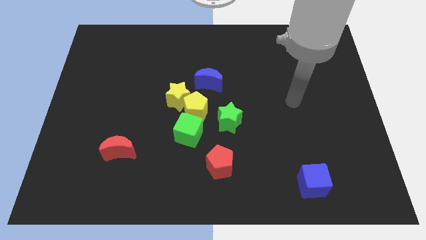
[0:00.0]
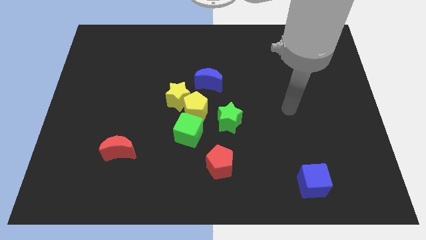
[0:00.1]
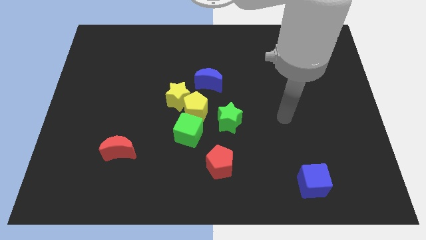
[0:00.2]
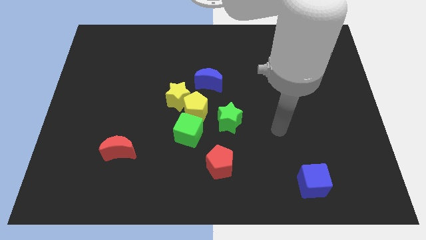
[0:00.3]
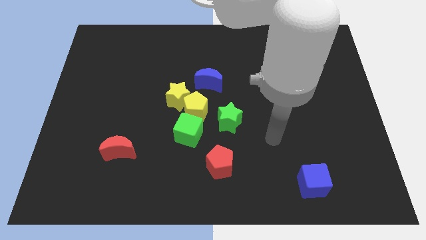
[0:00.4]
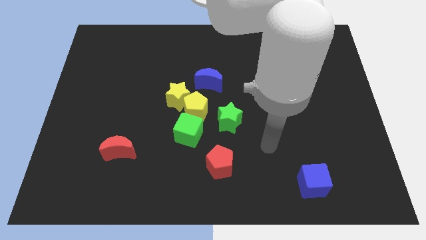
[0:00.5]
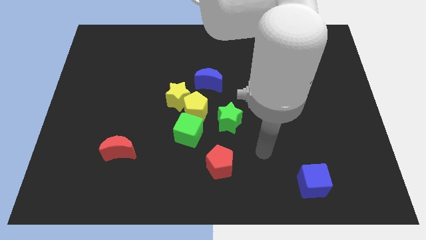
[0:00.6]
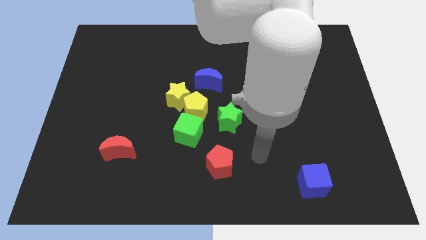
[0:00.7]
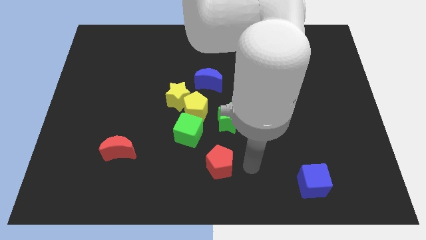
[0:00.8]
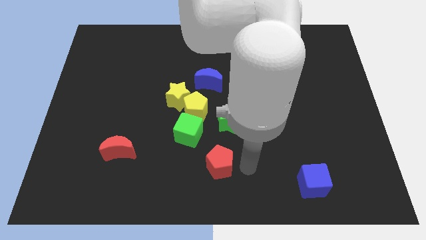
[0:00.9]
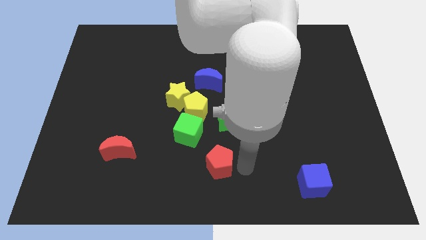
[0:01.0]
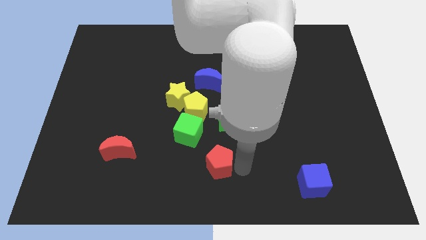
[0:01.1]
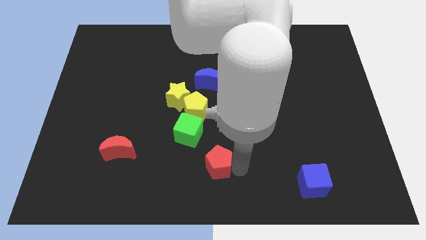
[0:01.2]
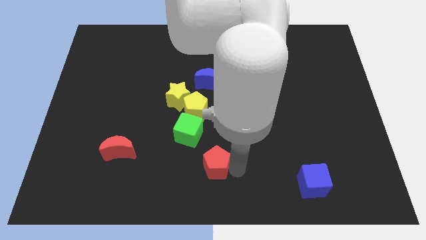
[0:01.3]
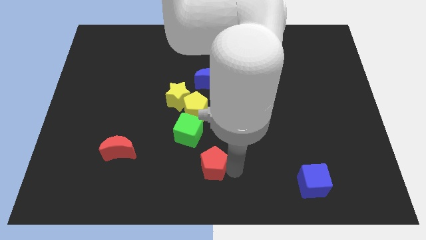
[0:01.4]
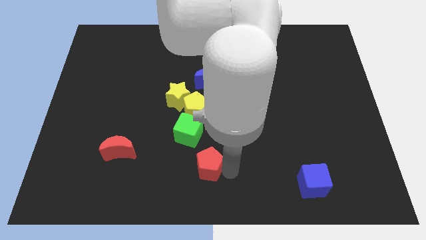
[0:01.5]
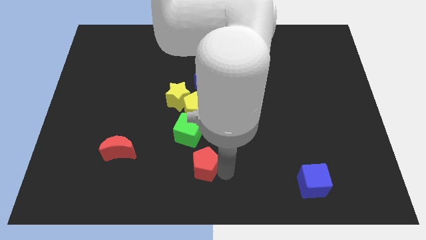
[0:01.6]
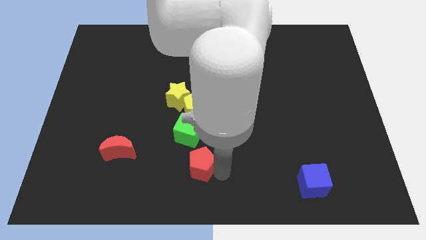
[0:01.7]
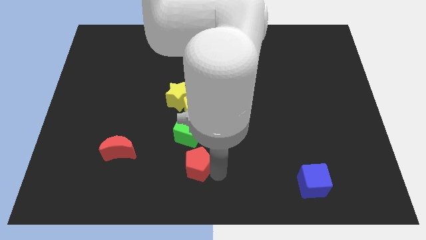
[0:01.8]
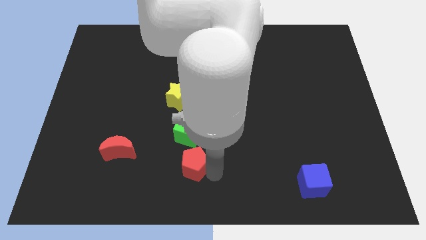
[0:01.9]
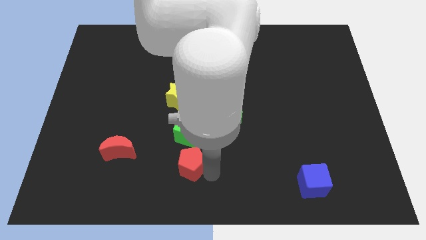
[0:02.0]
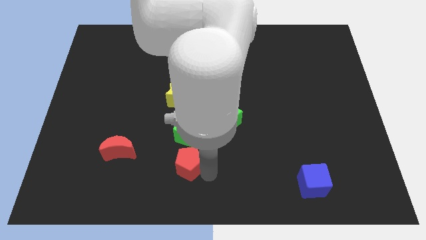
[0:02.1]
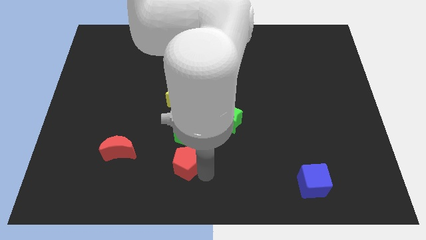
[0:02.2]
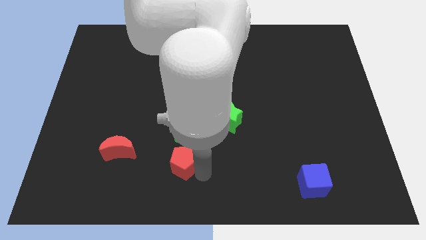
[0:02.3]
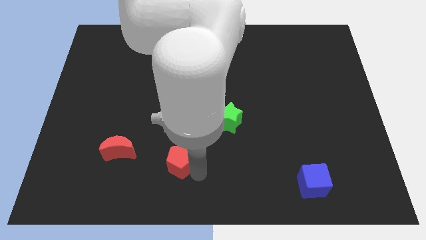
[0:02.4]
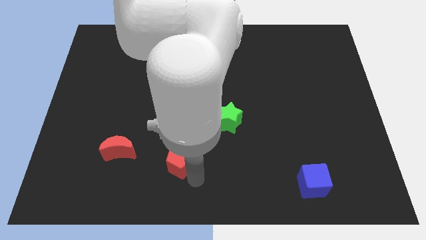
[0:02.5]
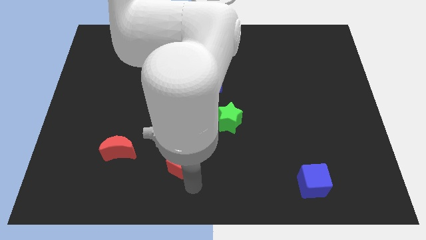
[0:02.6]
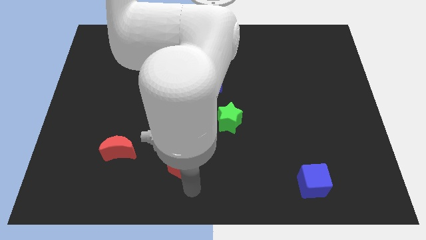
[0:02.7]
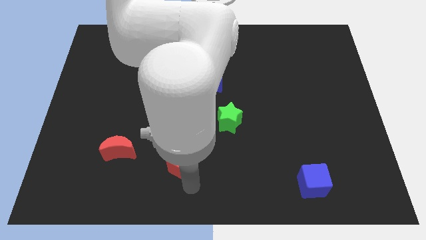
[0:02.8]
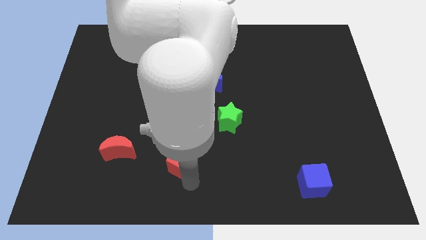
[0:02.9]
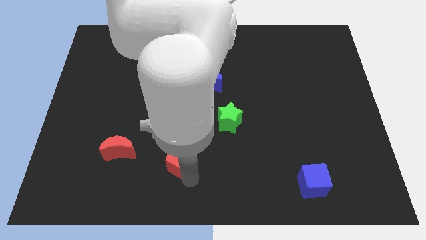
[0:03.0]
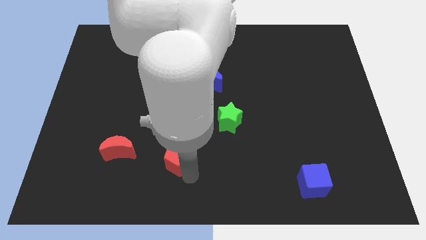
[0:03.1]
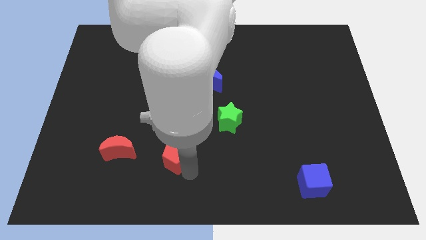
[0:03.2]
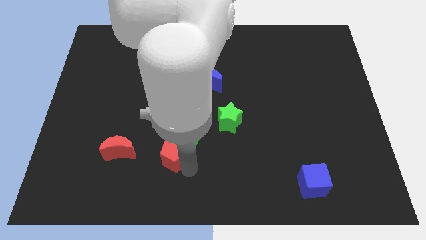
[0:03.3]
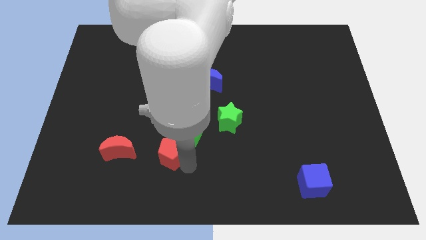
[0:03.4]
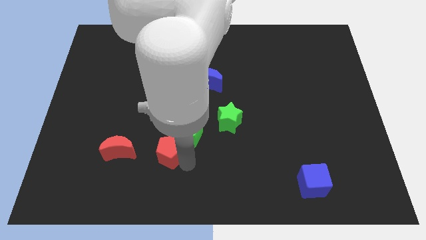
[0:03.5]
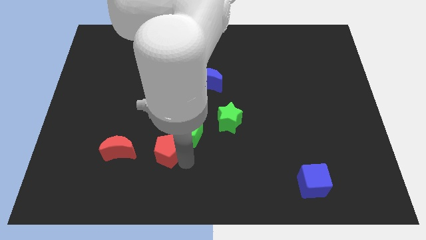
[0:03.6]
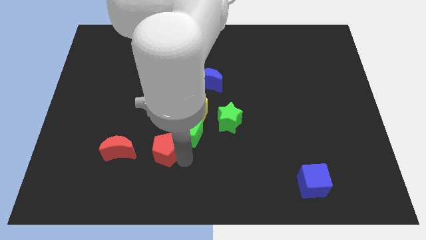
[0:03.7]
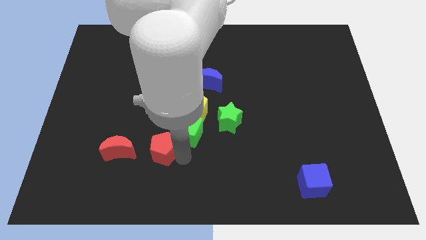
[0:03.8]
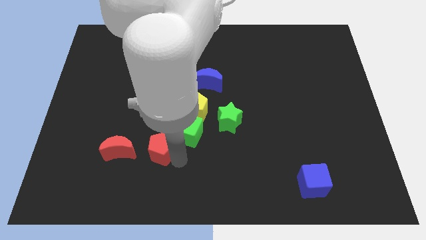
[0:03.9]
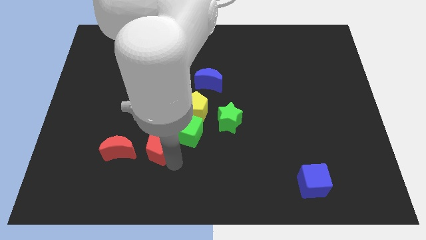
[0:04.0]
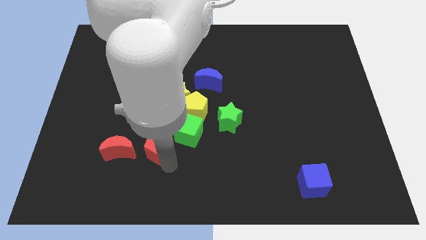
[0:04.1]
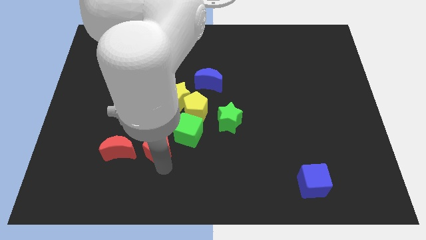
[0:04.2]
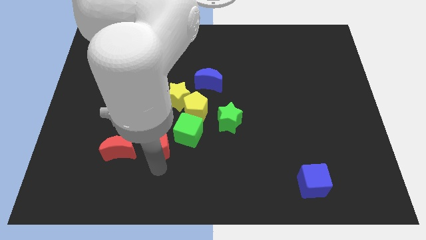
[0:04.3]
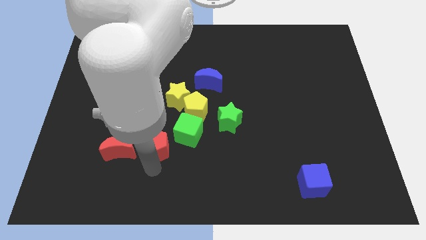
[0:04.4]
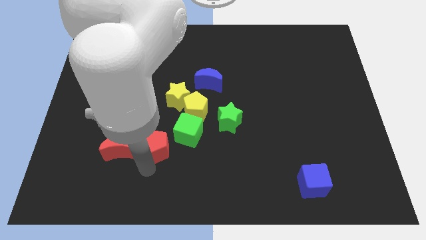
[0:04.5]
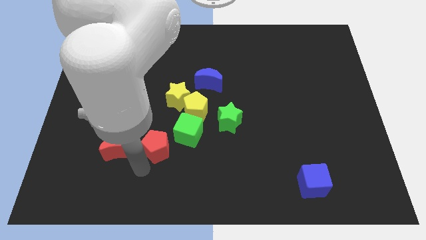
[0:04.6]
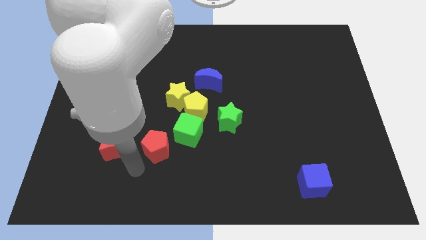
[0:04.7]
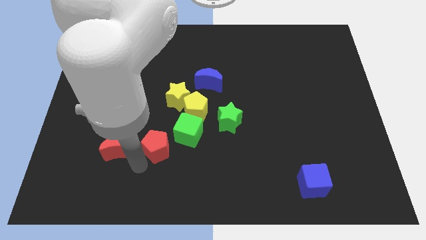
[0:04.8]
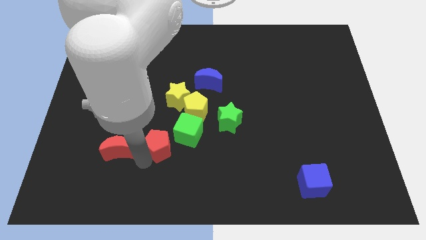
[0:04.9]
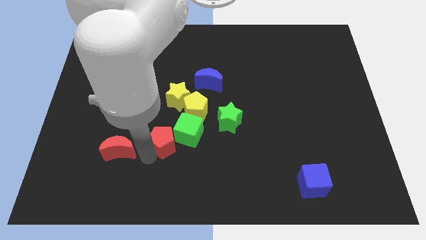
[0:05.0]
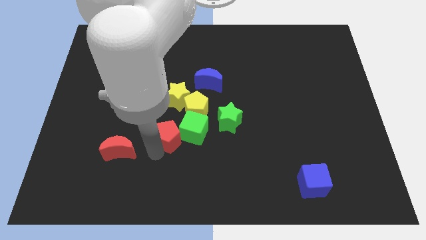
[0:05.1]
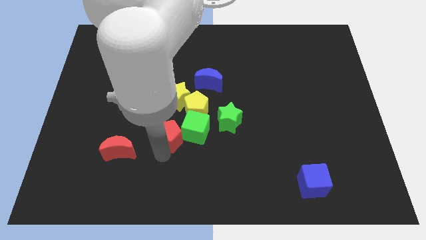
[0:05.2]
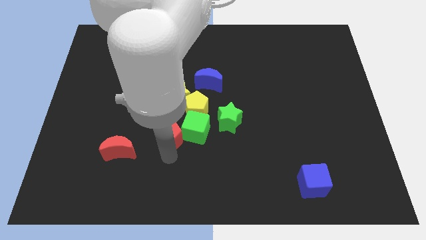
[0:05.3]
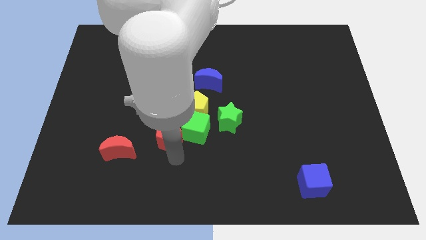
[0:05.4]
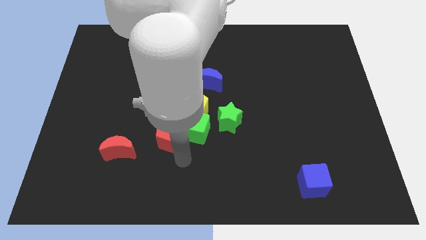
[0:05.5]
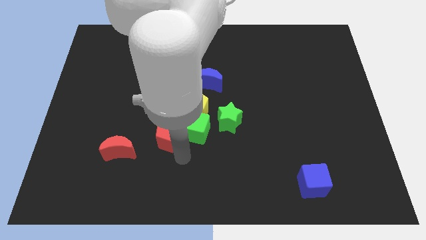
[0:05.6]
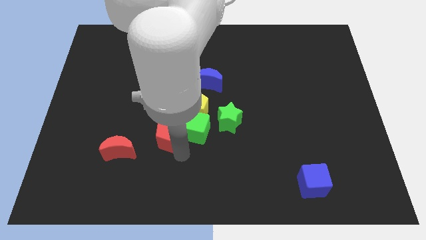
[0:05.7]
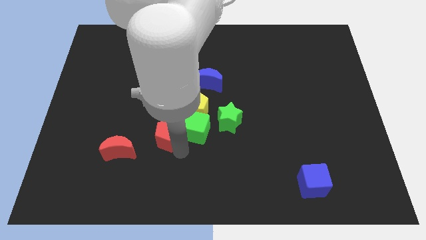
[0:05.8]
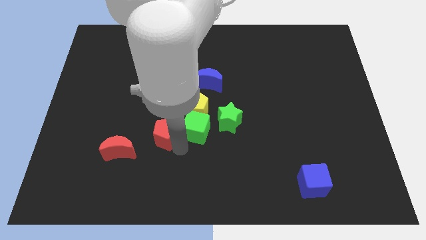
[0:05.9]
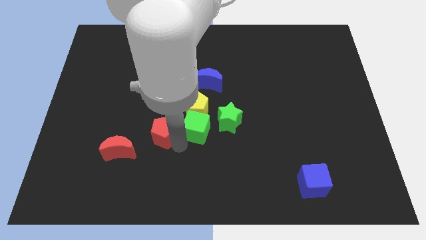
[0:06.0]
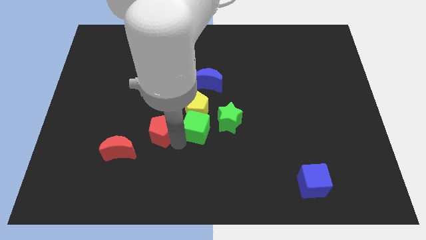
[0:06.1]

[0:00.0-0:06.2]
put the red pentagon to the bottom left of the yellow star

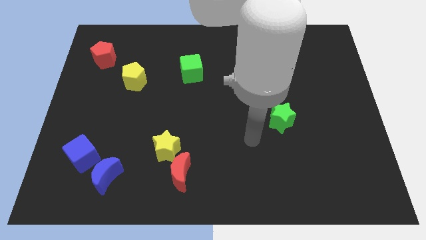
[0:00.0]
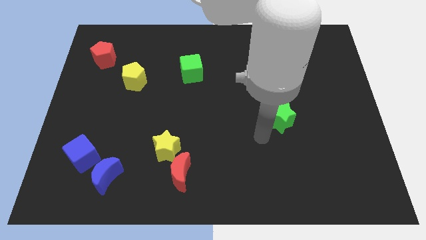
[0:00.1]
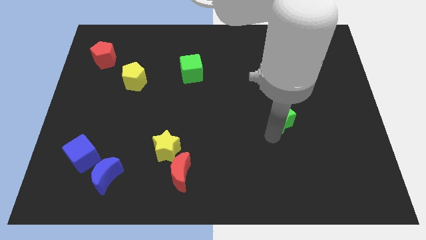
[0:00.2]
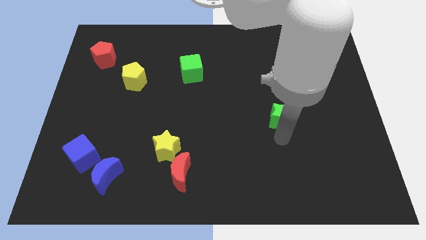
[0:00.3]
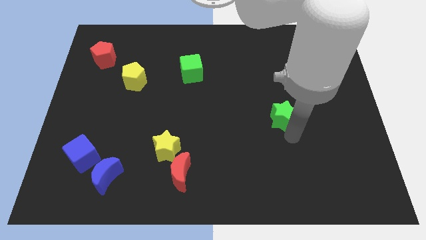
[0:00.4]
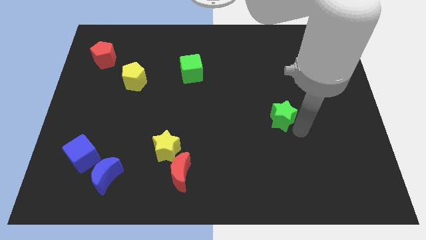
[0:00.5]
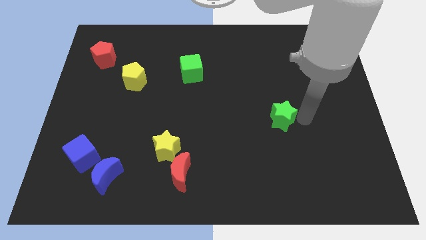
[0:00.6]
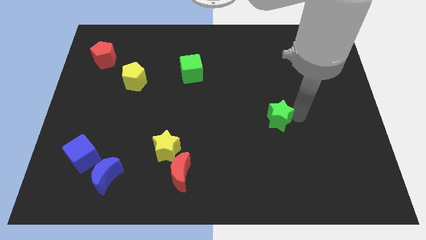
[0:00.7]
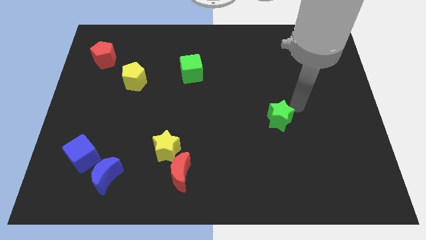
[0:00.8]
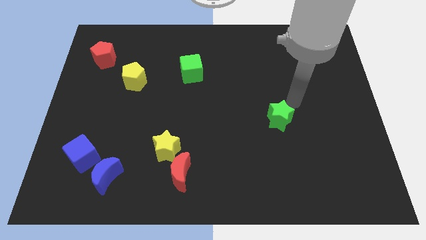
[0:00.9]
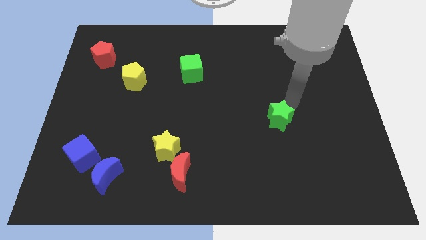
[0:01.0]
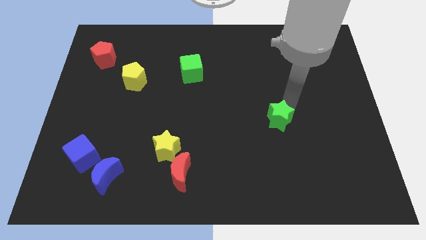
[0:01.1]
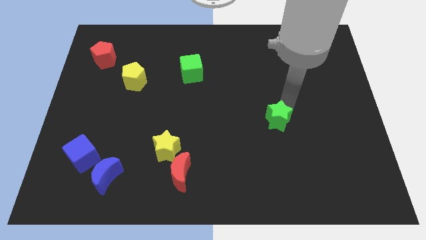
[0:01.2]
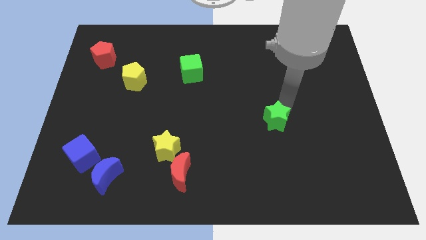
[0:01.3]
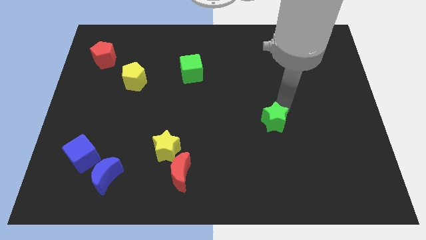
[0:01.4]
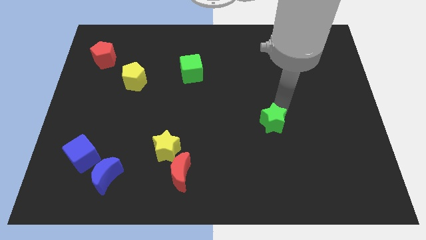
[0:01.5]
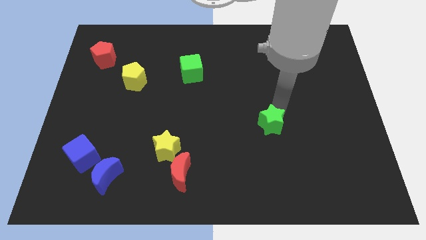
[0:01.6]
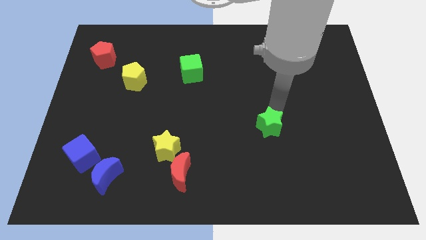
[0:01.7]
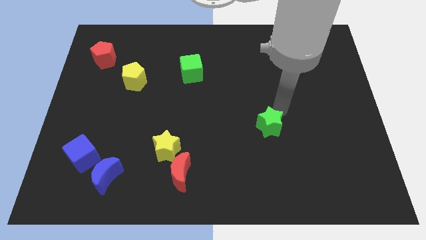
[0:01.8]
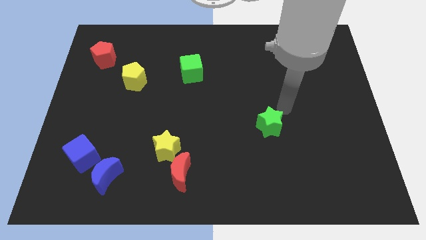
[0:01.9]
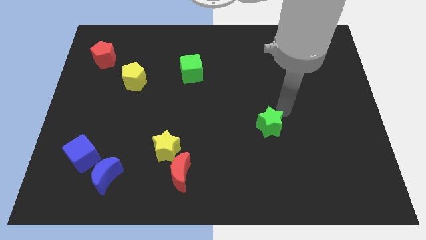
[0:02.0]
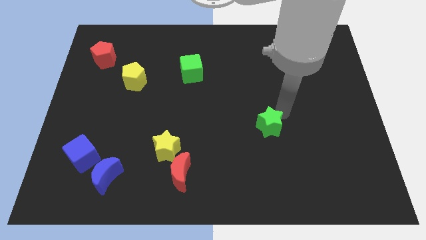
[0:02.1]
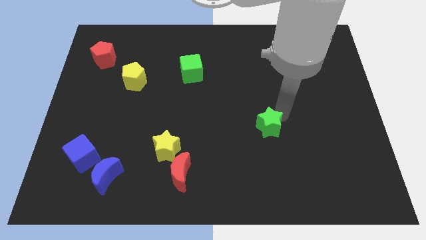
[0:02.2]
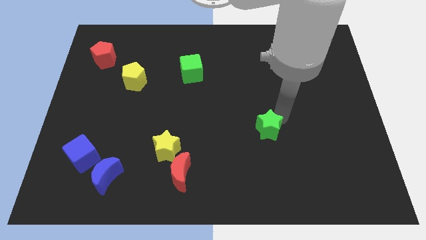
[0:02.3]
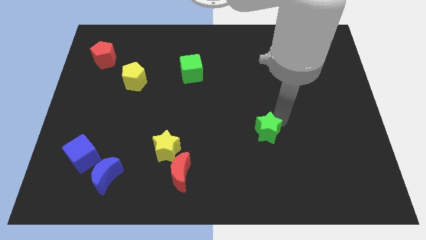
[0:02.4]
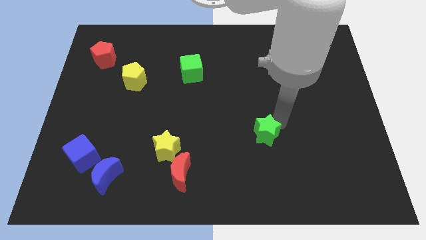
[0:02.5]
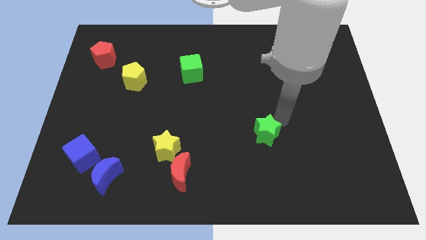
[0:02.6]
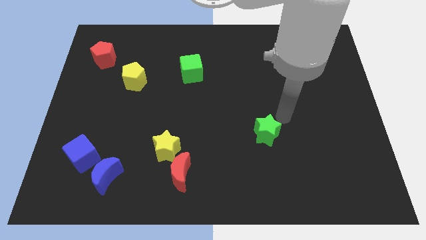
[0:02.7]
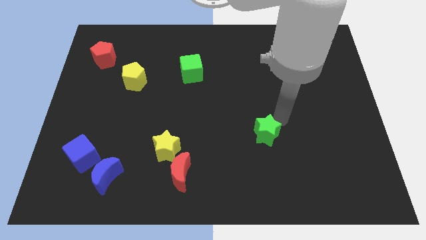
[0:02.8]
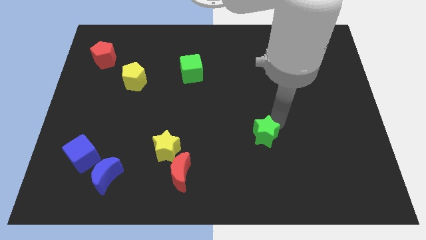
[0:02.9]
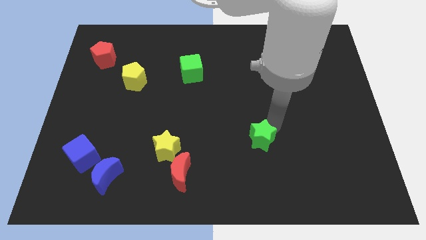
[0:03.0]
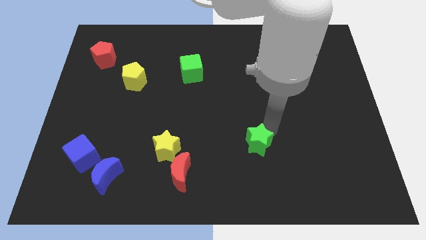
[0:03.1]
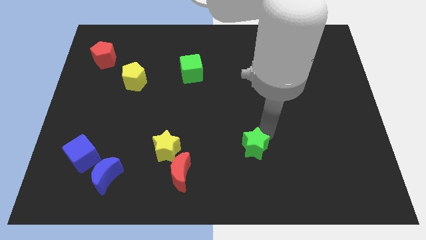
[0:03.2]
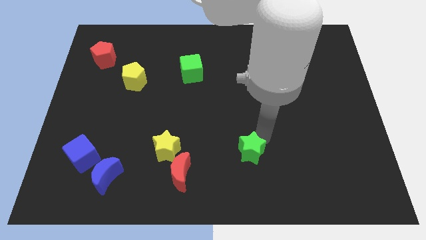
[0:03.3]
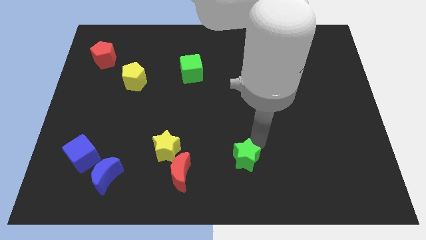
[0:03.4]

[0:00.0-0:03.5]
put the green star to the right side of the red moon
